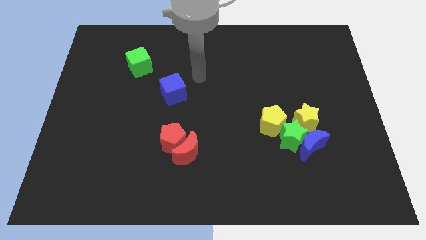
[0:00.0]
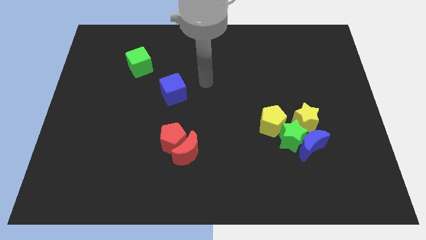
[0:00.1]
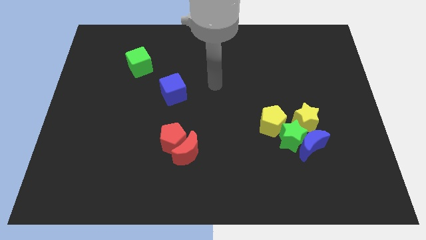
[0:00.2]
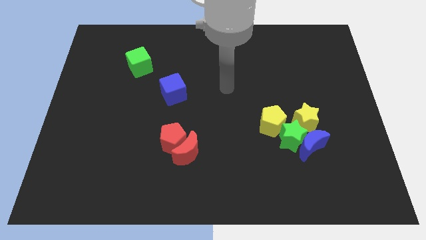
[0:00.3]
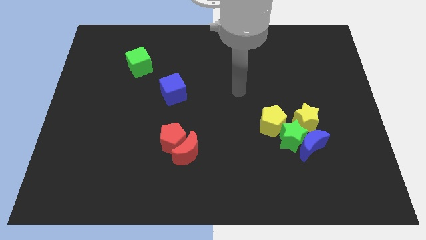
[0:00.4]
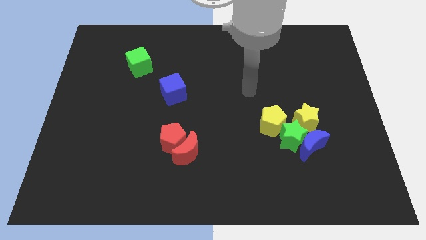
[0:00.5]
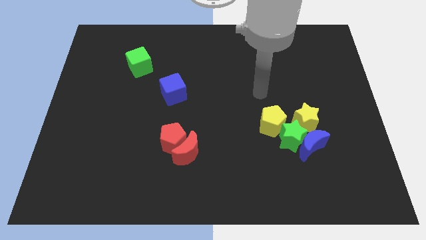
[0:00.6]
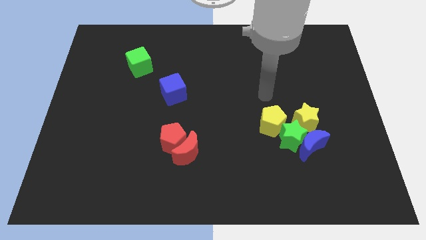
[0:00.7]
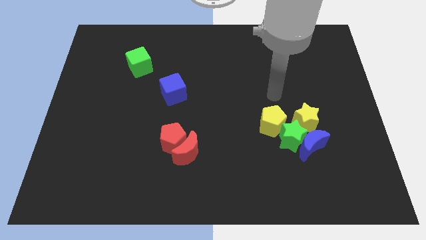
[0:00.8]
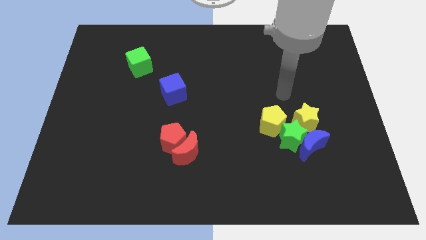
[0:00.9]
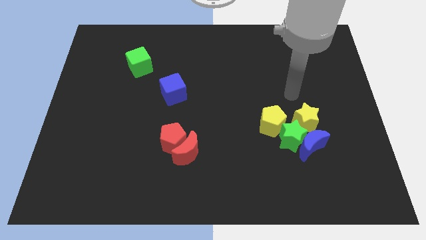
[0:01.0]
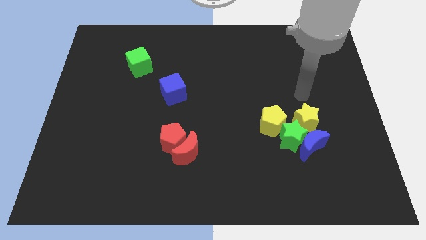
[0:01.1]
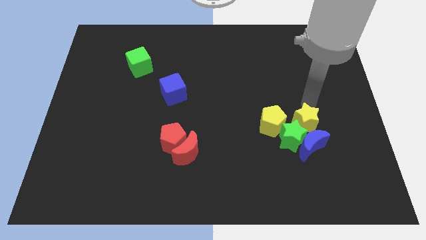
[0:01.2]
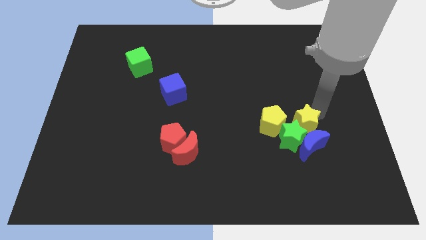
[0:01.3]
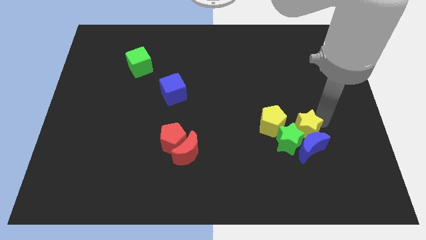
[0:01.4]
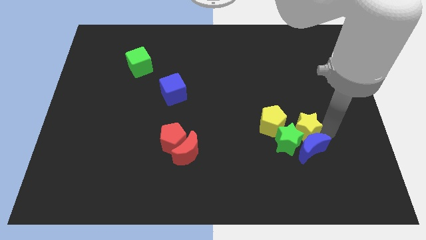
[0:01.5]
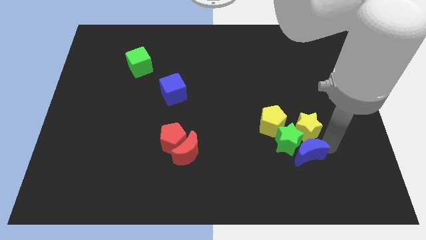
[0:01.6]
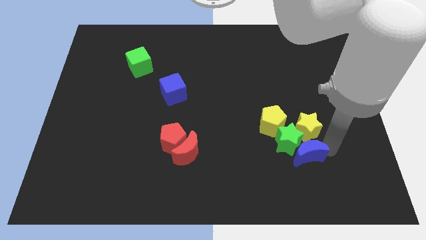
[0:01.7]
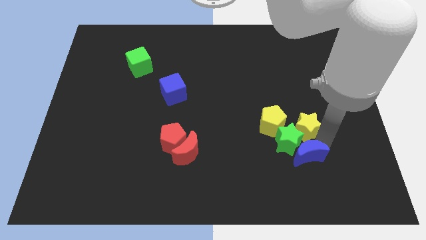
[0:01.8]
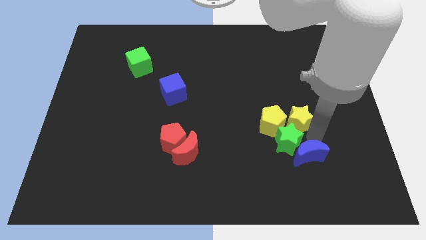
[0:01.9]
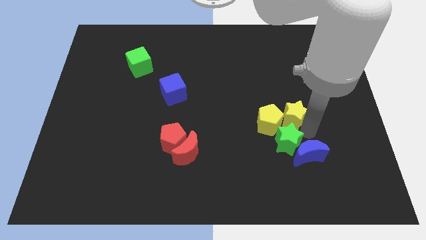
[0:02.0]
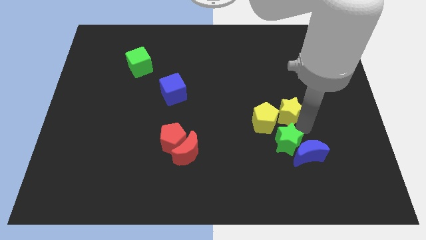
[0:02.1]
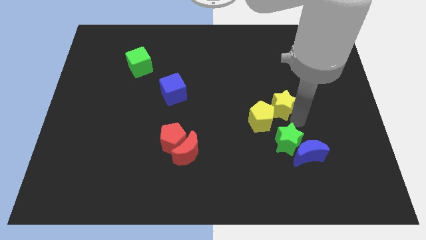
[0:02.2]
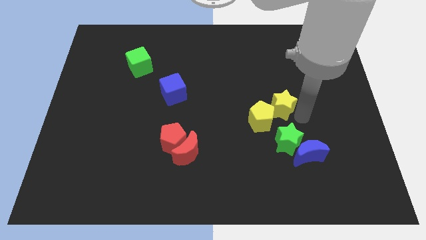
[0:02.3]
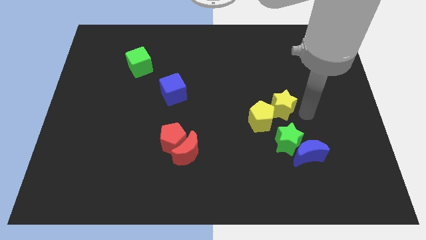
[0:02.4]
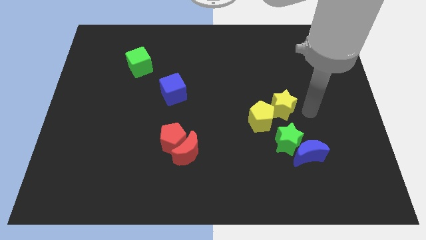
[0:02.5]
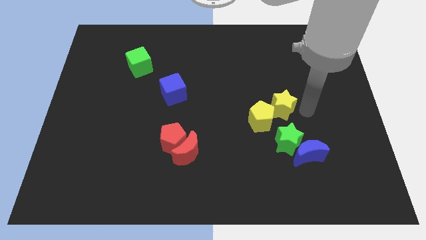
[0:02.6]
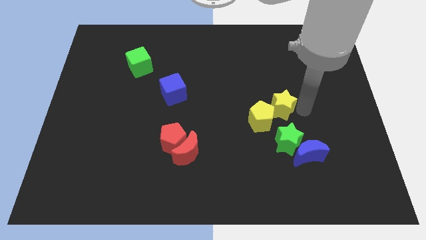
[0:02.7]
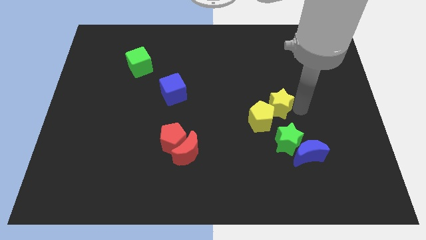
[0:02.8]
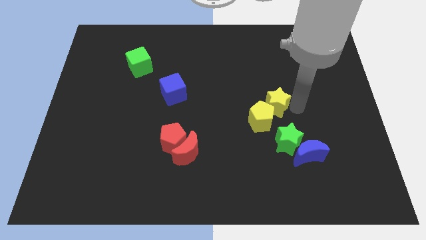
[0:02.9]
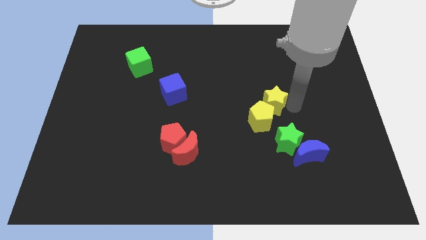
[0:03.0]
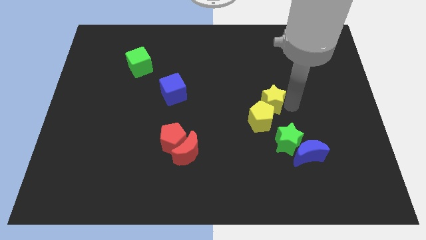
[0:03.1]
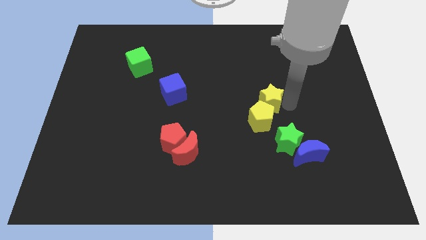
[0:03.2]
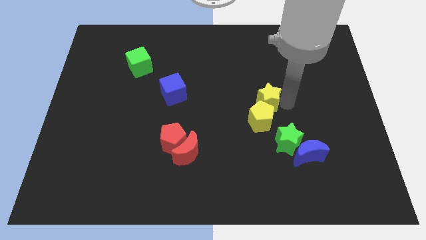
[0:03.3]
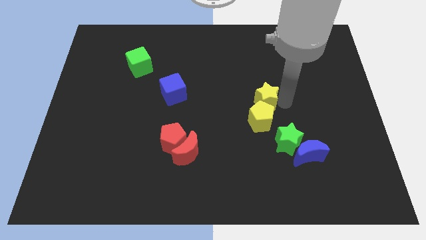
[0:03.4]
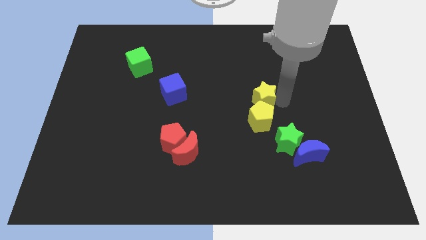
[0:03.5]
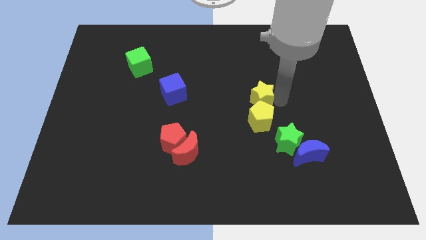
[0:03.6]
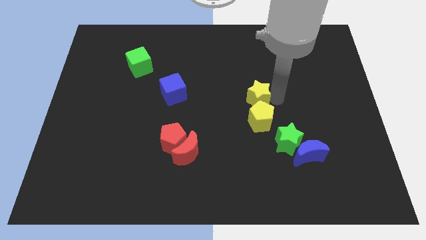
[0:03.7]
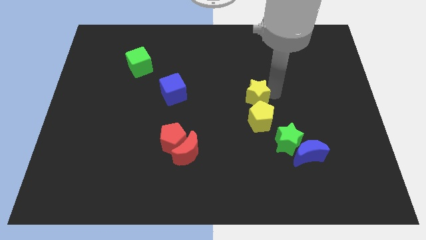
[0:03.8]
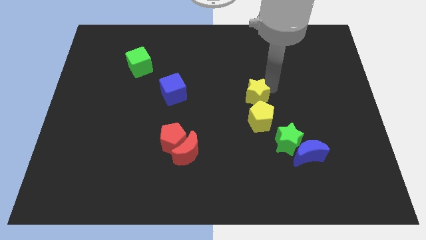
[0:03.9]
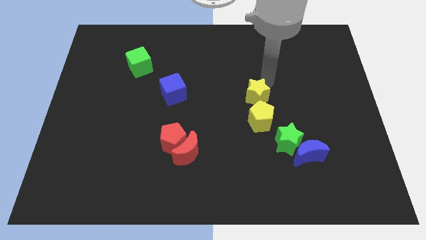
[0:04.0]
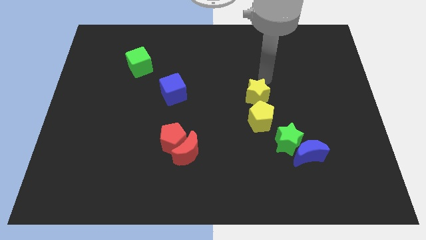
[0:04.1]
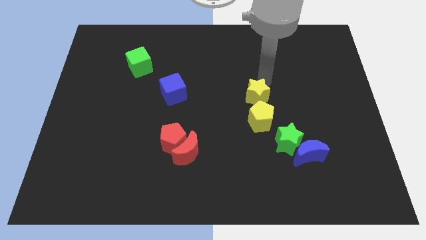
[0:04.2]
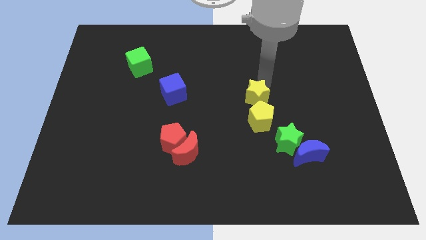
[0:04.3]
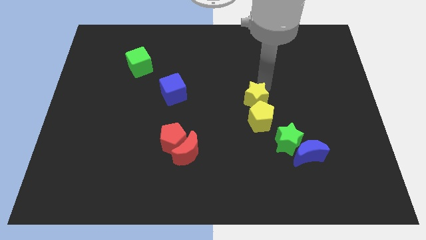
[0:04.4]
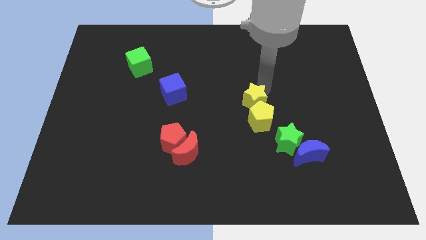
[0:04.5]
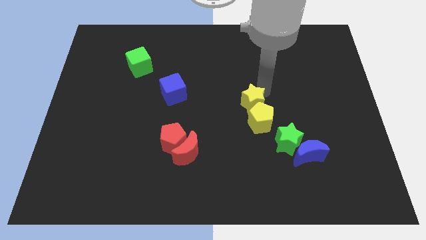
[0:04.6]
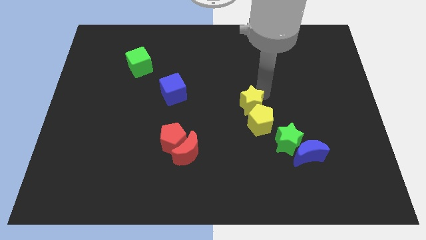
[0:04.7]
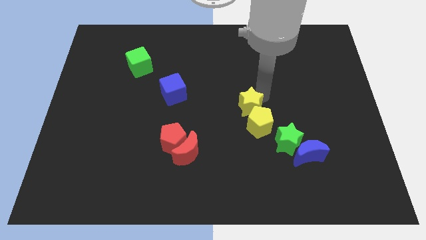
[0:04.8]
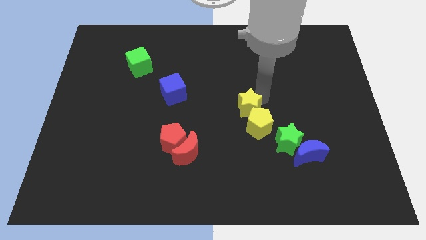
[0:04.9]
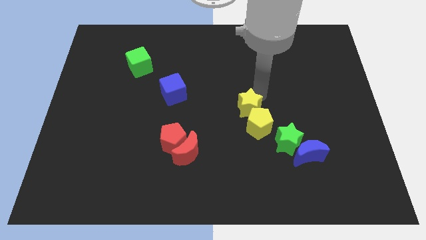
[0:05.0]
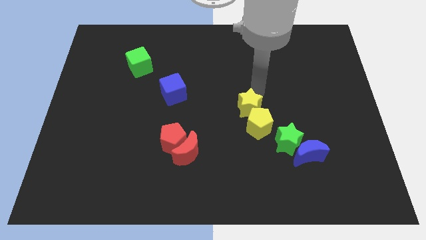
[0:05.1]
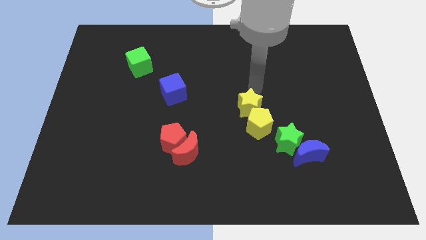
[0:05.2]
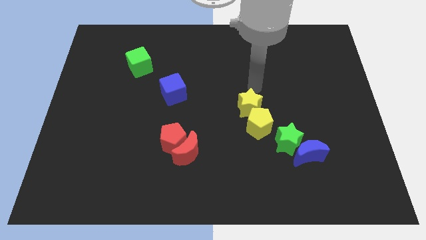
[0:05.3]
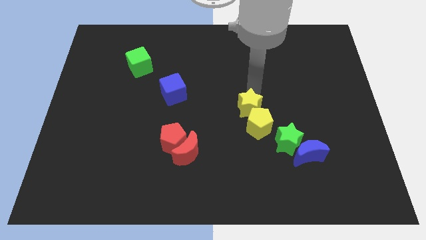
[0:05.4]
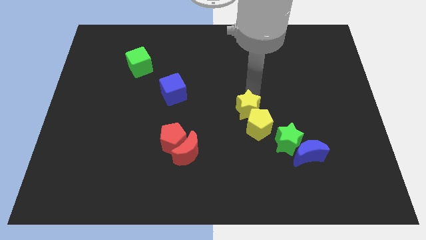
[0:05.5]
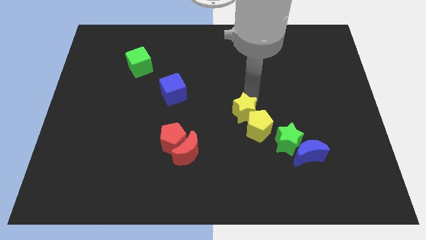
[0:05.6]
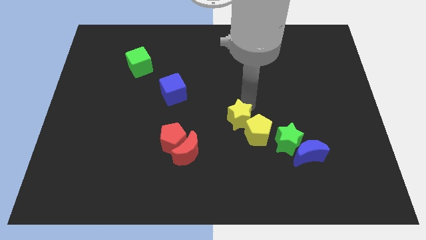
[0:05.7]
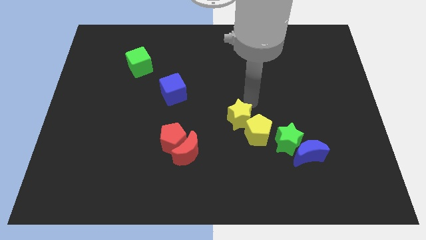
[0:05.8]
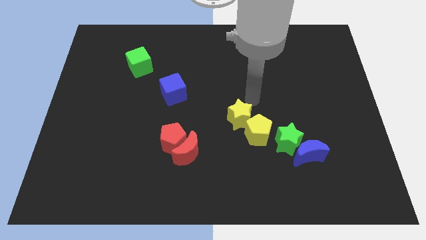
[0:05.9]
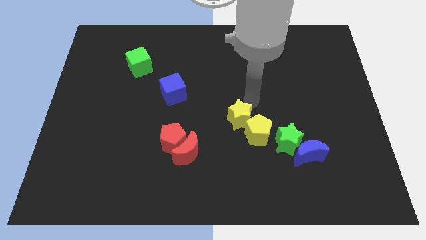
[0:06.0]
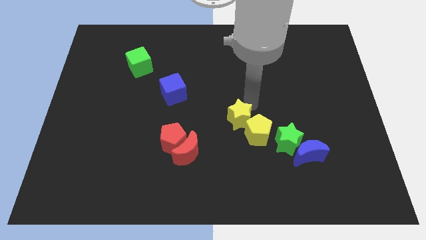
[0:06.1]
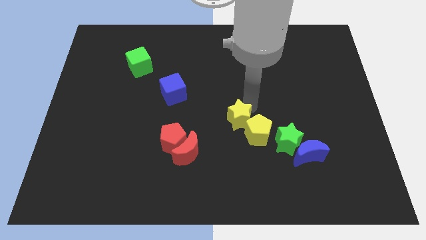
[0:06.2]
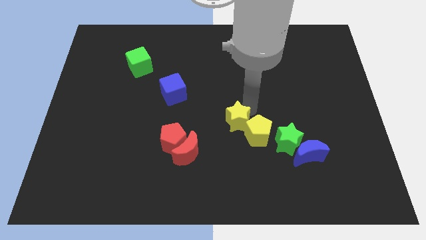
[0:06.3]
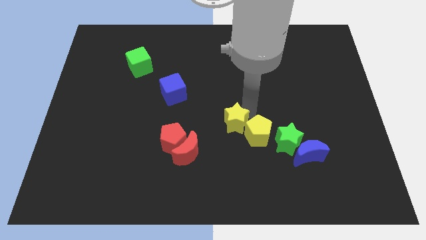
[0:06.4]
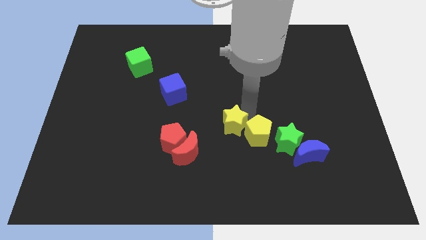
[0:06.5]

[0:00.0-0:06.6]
push the yellow star to the right side of the red pentagon

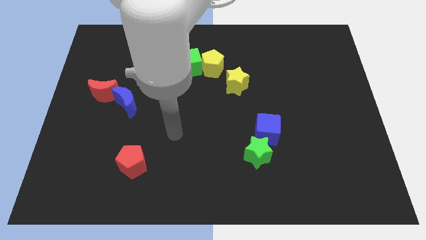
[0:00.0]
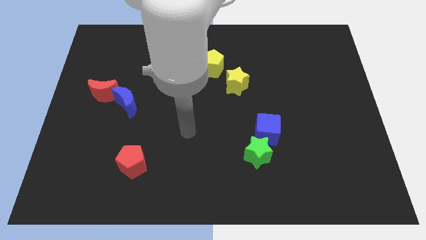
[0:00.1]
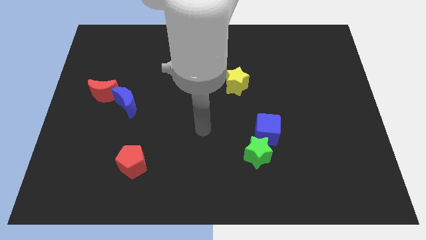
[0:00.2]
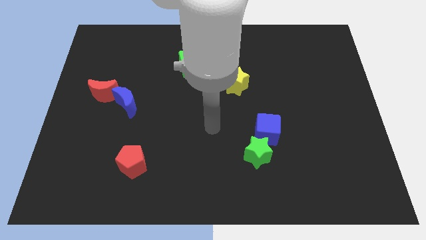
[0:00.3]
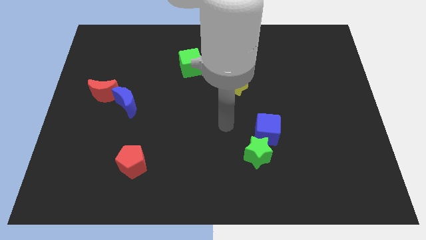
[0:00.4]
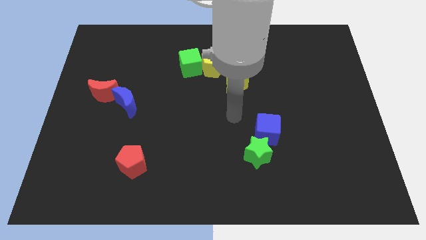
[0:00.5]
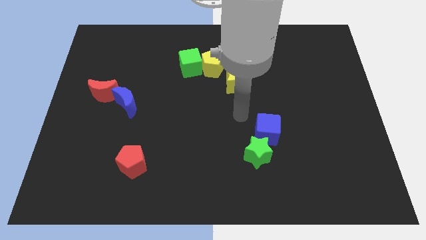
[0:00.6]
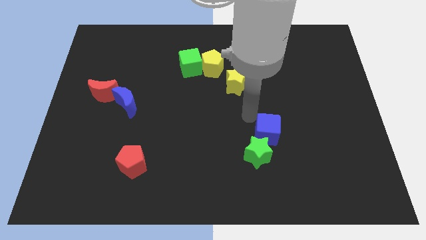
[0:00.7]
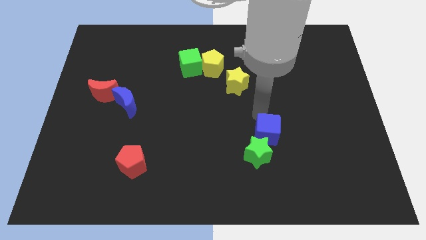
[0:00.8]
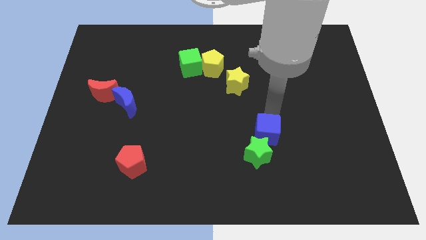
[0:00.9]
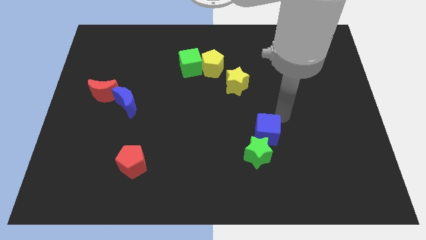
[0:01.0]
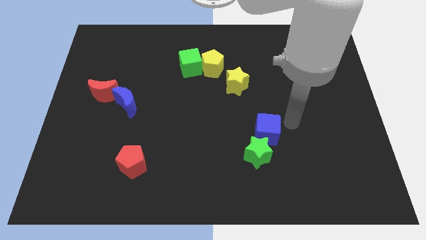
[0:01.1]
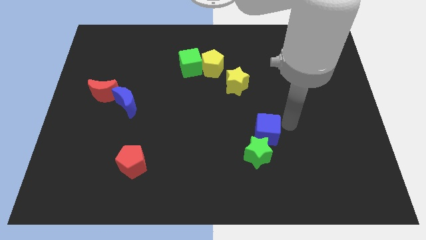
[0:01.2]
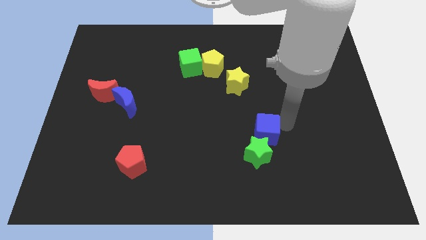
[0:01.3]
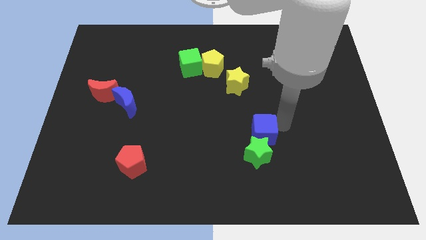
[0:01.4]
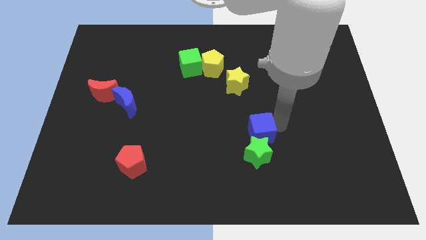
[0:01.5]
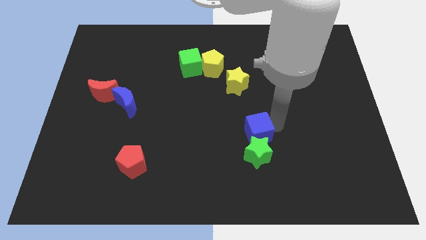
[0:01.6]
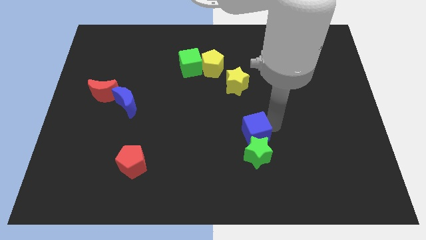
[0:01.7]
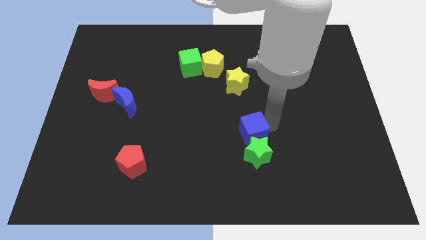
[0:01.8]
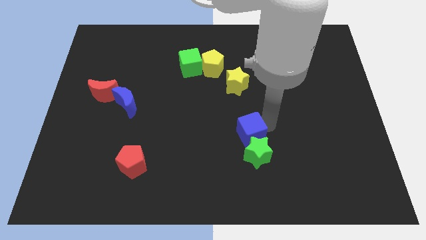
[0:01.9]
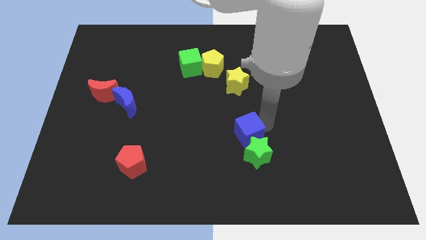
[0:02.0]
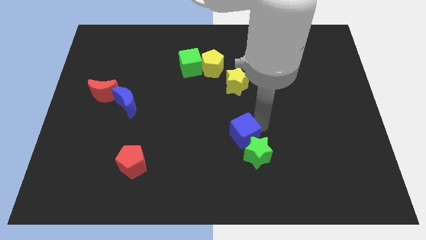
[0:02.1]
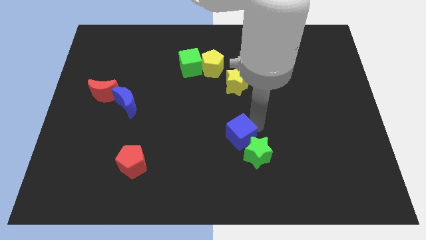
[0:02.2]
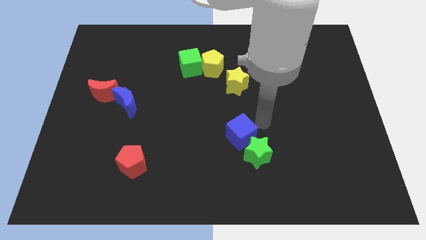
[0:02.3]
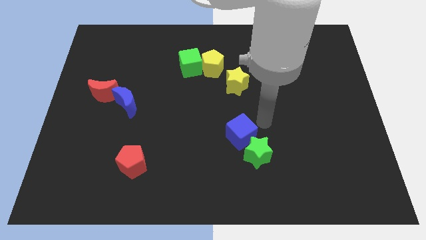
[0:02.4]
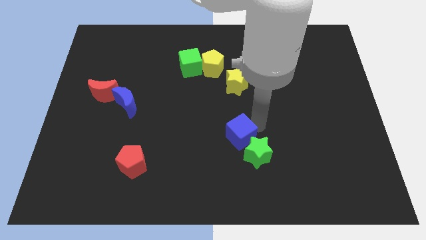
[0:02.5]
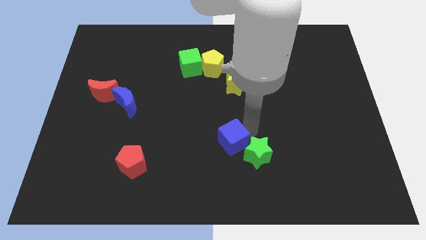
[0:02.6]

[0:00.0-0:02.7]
push the blue cube left of the green star
